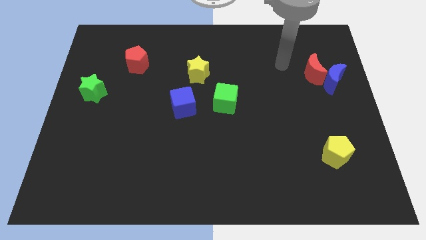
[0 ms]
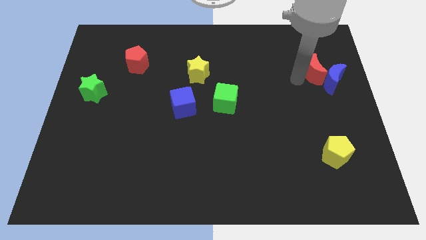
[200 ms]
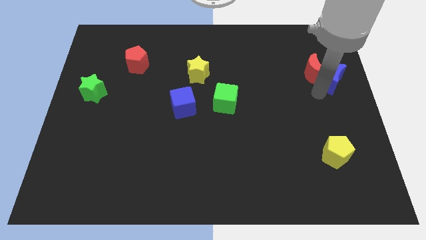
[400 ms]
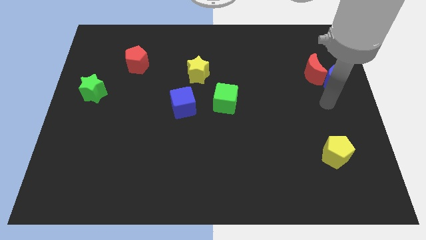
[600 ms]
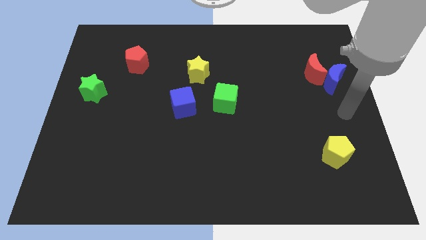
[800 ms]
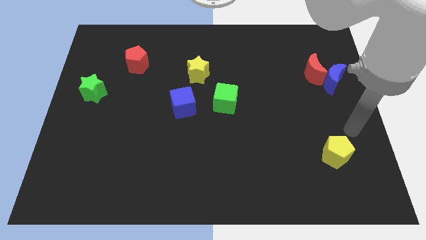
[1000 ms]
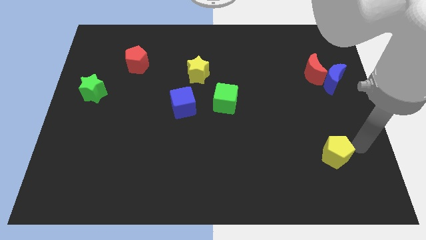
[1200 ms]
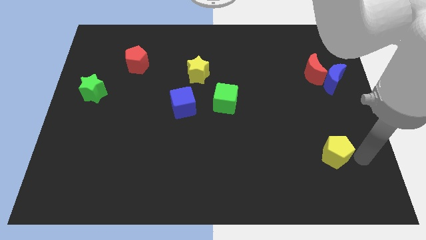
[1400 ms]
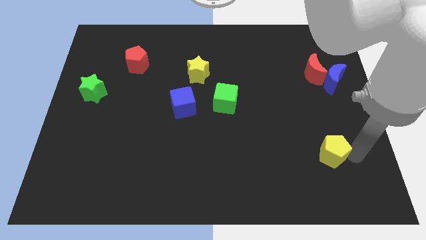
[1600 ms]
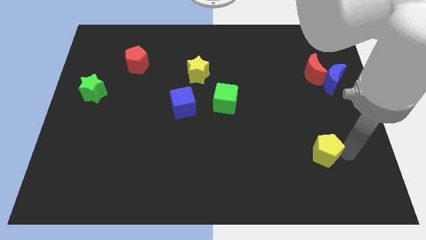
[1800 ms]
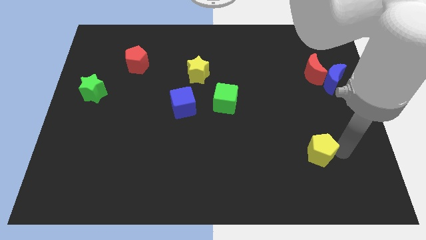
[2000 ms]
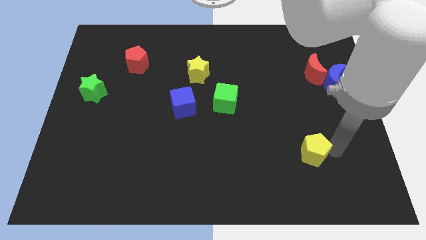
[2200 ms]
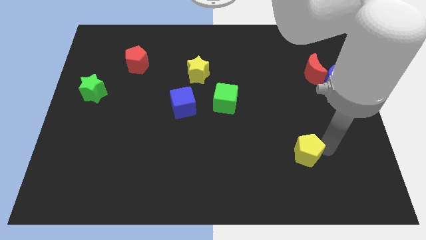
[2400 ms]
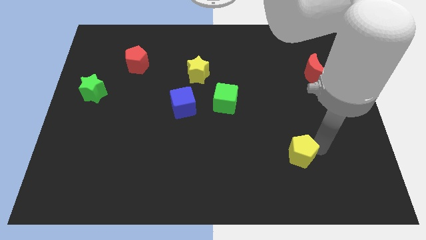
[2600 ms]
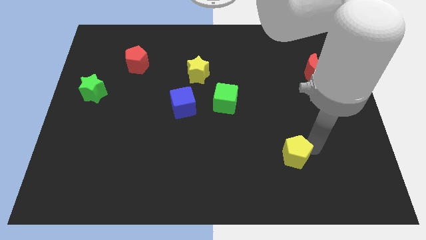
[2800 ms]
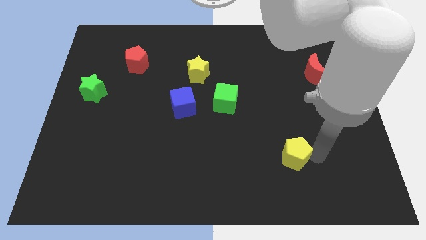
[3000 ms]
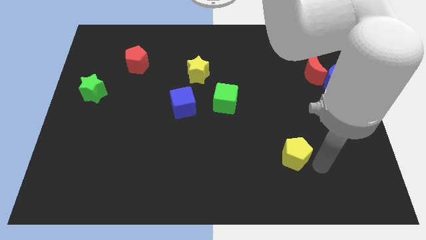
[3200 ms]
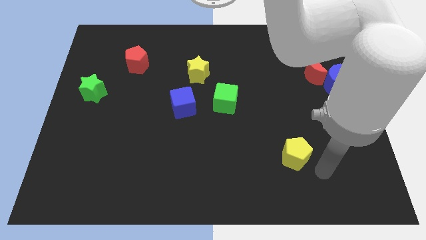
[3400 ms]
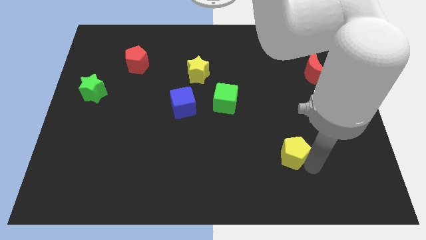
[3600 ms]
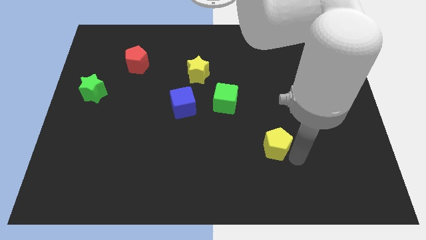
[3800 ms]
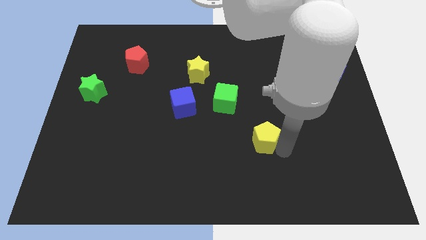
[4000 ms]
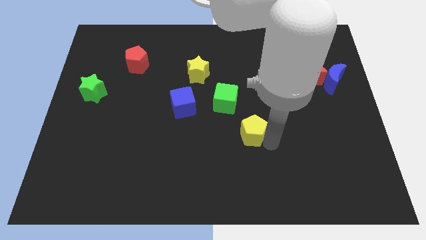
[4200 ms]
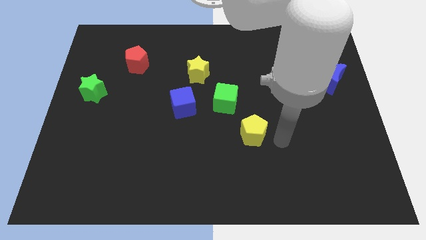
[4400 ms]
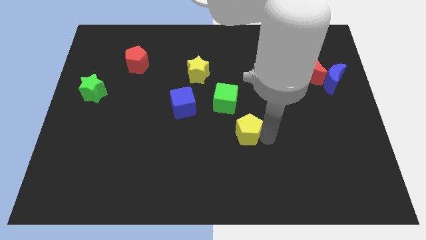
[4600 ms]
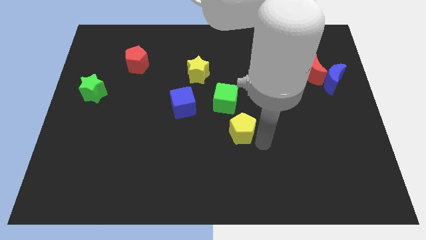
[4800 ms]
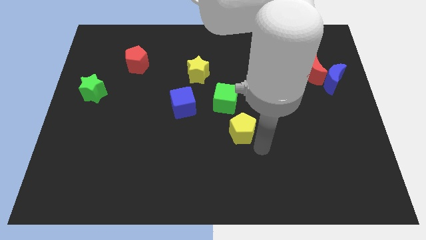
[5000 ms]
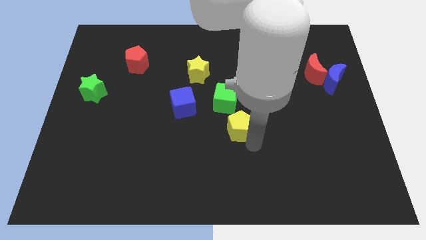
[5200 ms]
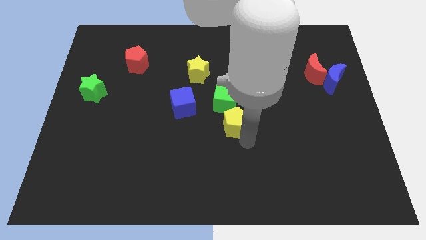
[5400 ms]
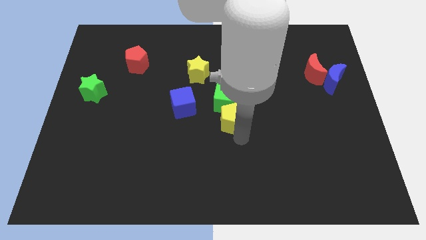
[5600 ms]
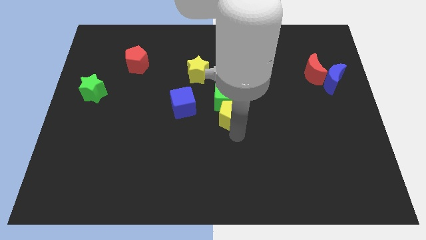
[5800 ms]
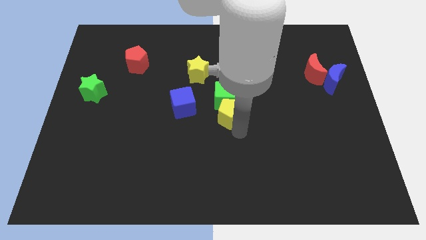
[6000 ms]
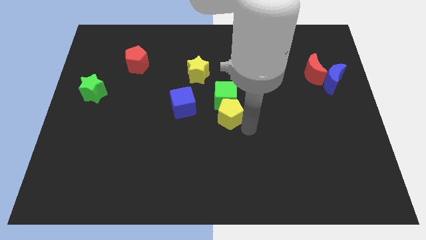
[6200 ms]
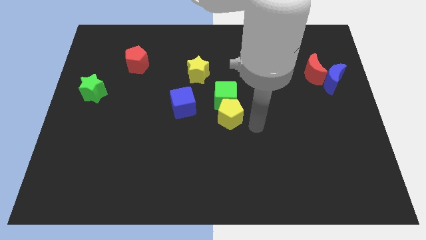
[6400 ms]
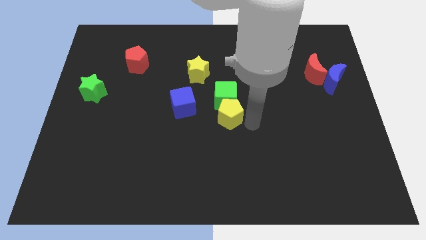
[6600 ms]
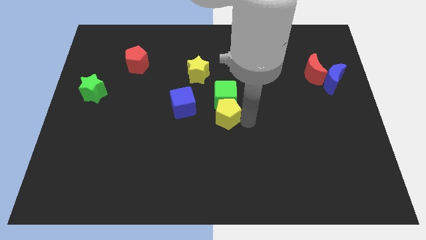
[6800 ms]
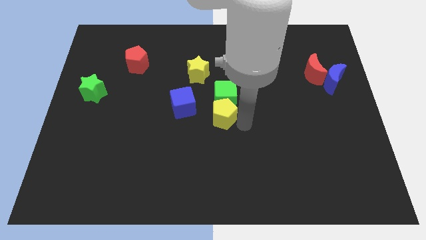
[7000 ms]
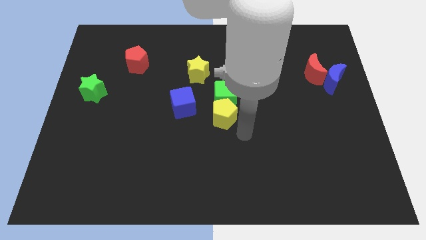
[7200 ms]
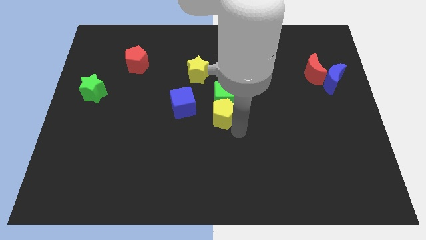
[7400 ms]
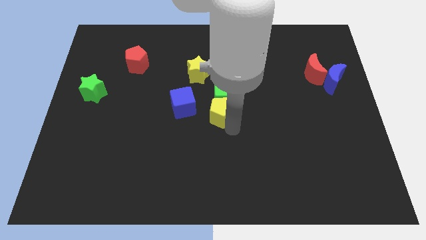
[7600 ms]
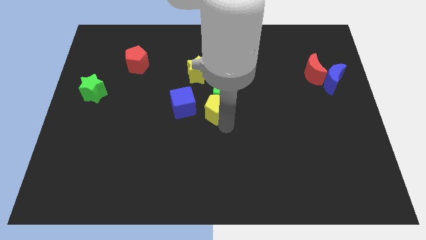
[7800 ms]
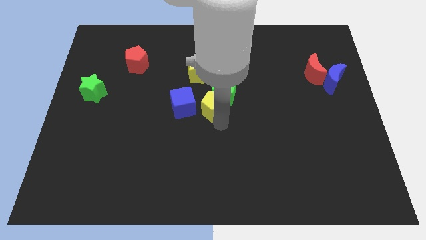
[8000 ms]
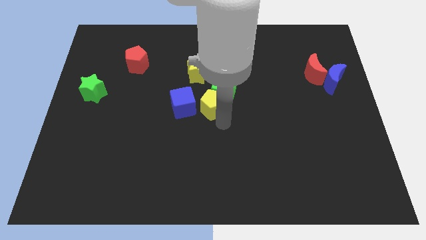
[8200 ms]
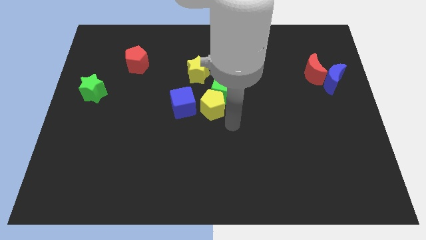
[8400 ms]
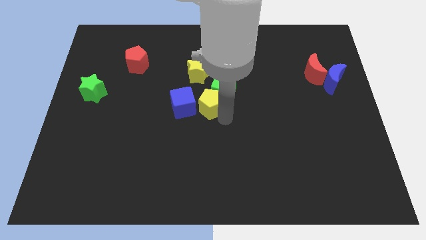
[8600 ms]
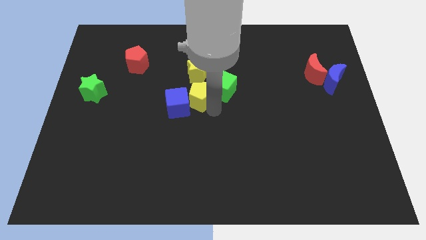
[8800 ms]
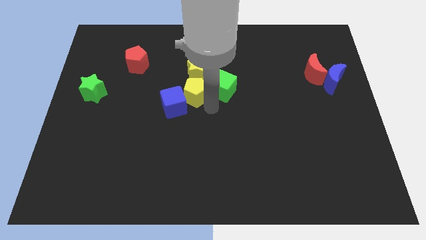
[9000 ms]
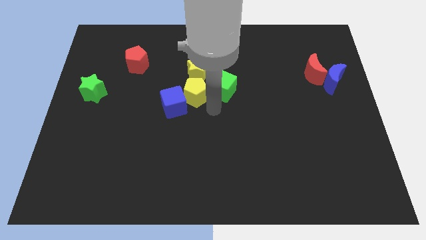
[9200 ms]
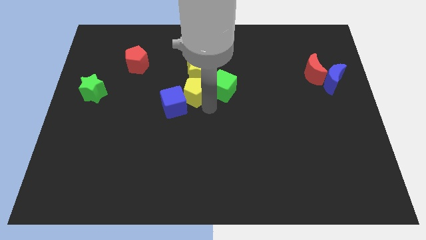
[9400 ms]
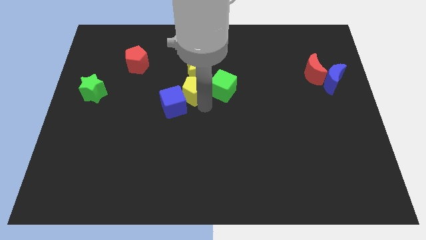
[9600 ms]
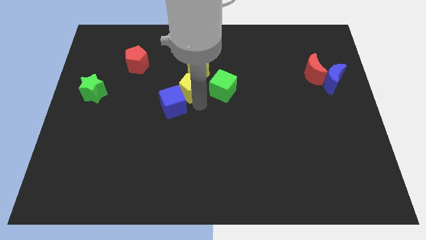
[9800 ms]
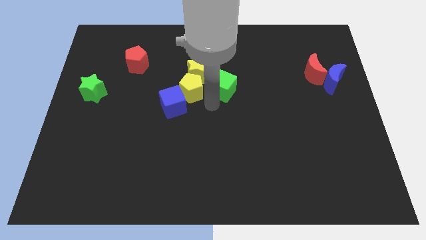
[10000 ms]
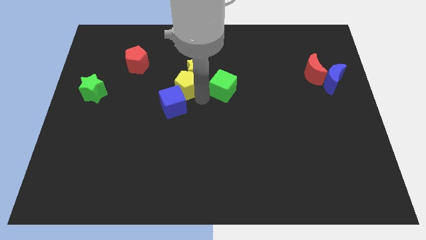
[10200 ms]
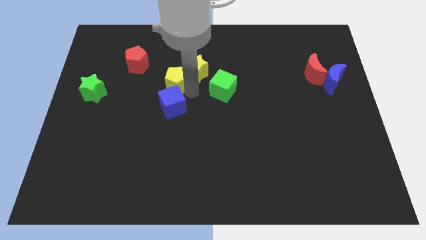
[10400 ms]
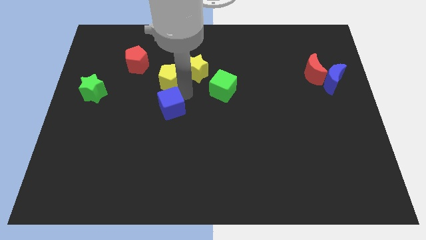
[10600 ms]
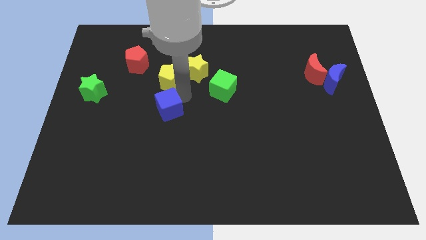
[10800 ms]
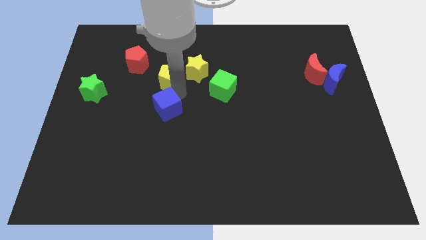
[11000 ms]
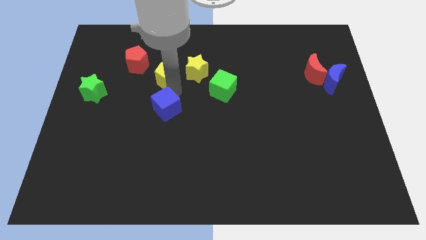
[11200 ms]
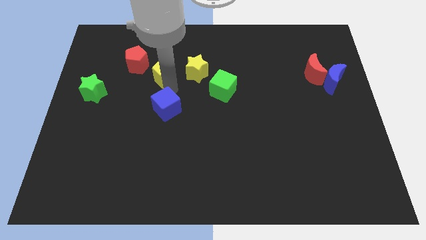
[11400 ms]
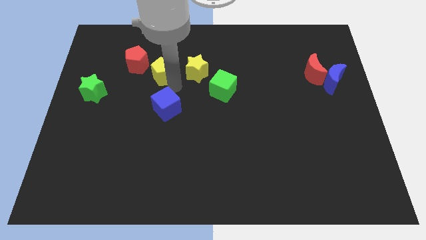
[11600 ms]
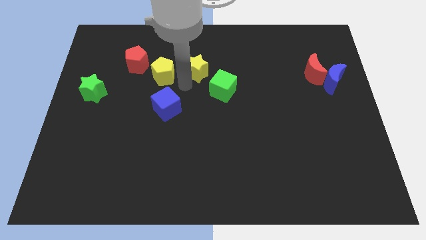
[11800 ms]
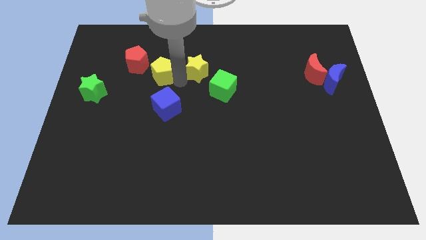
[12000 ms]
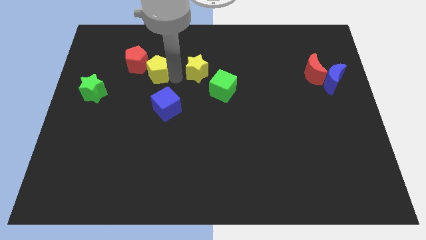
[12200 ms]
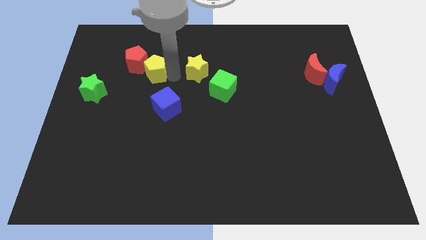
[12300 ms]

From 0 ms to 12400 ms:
slide the yellow pentagon towards the red pentagon

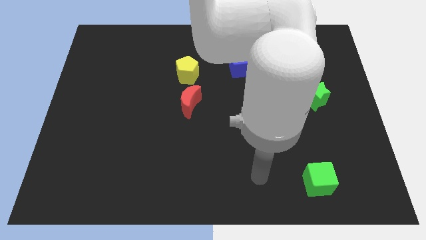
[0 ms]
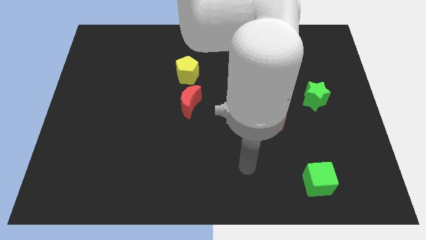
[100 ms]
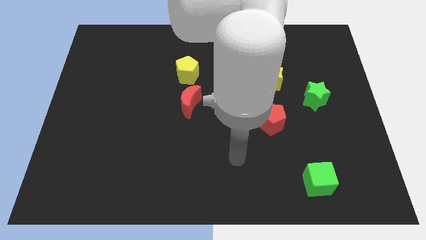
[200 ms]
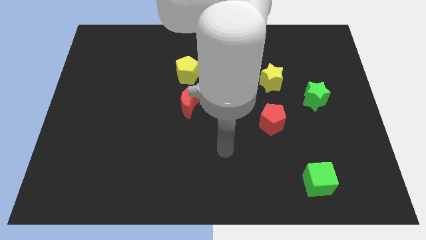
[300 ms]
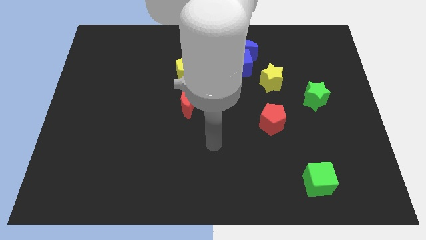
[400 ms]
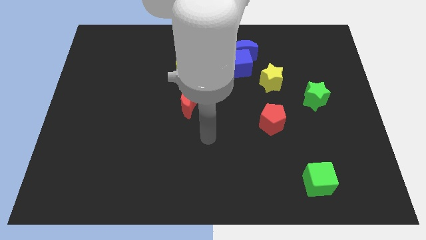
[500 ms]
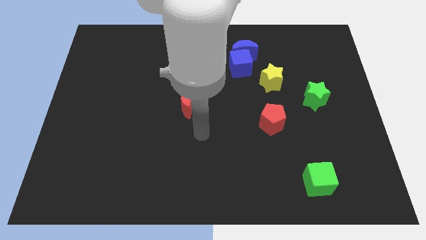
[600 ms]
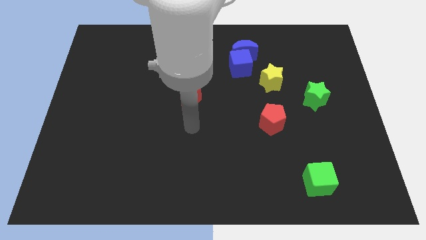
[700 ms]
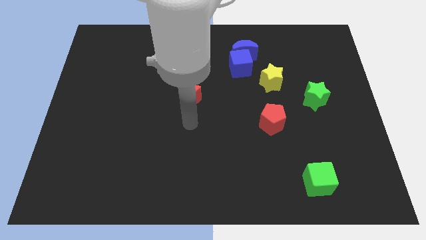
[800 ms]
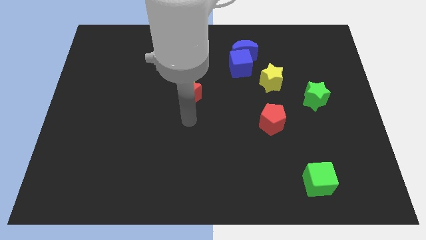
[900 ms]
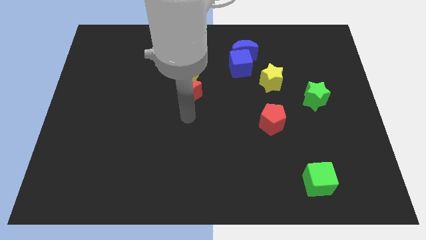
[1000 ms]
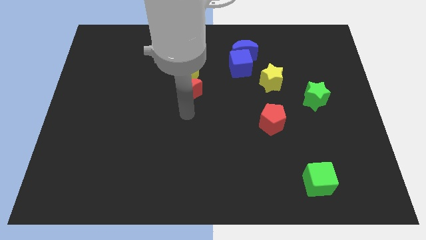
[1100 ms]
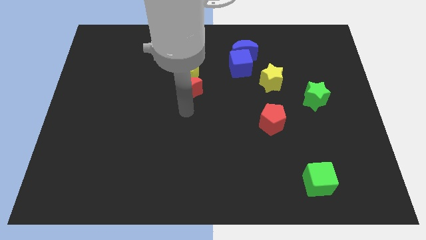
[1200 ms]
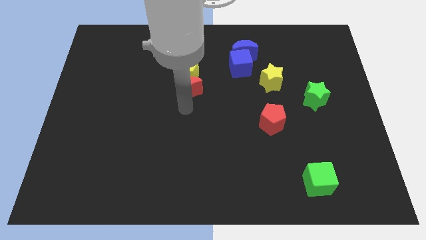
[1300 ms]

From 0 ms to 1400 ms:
slide the red moon next to the yellow pentagon
